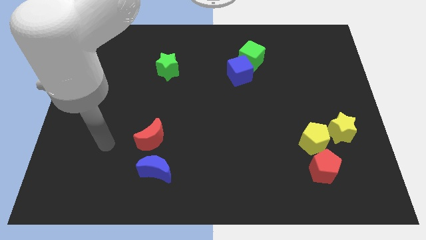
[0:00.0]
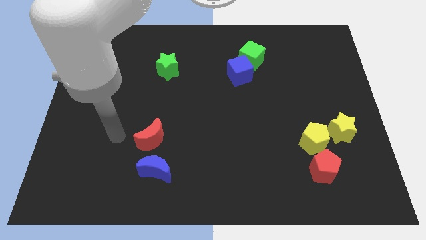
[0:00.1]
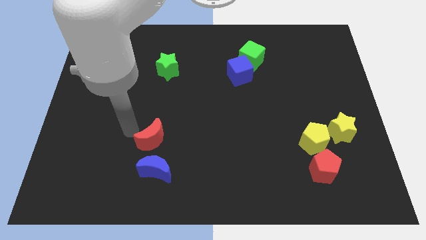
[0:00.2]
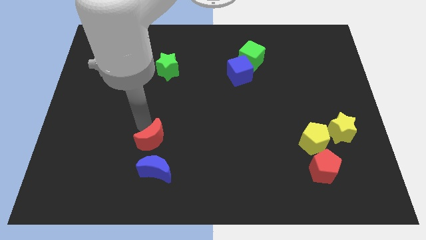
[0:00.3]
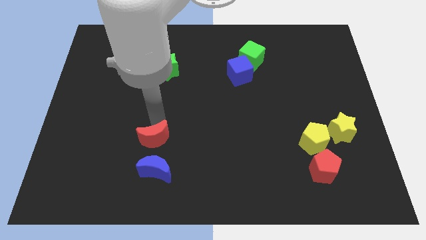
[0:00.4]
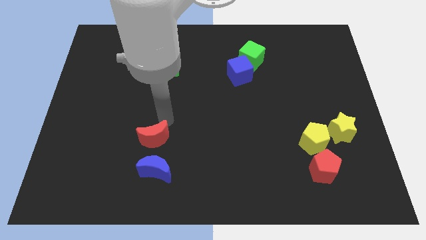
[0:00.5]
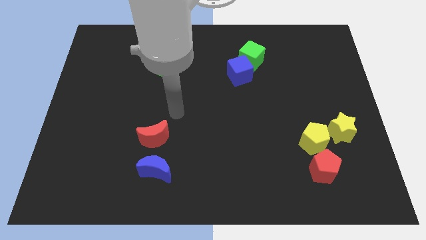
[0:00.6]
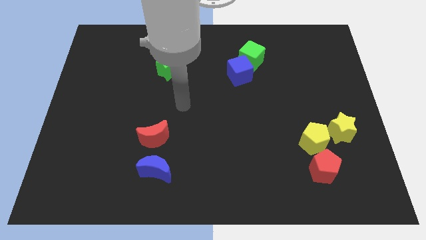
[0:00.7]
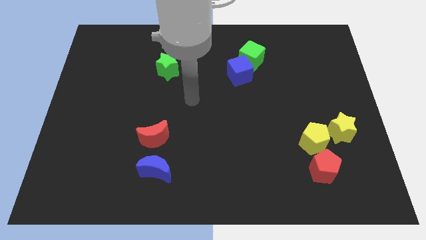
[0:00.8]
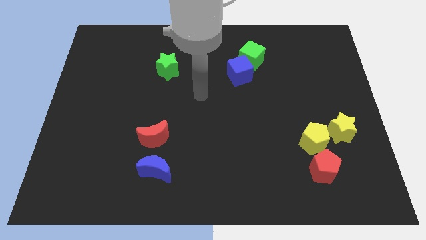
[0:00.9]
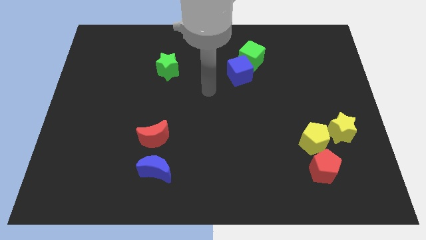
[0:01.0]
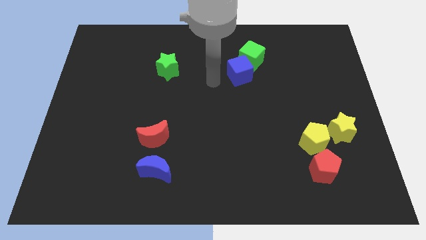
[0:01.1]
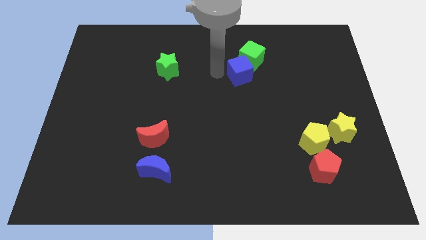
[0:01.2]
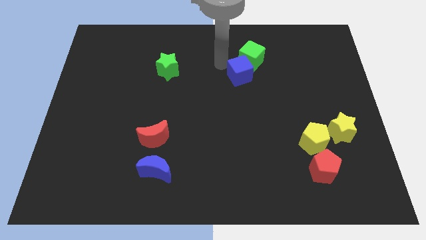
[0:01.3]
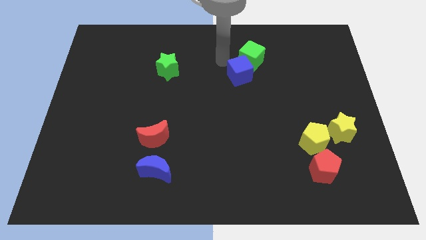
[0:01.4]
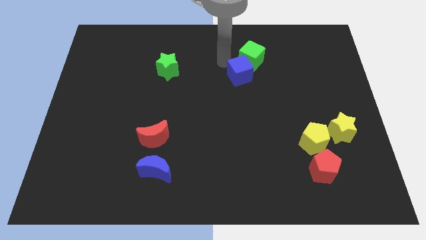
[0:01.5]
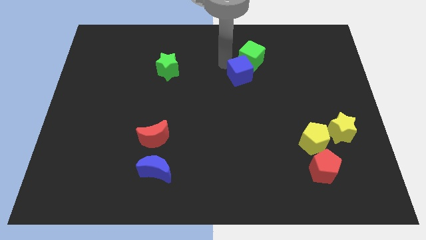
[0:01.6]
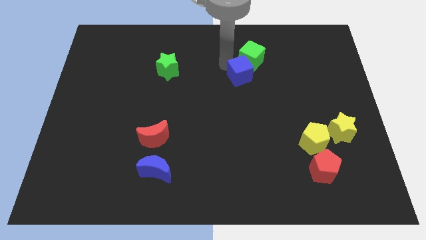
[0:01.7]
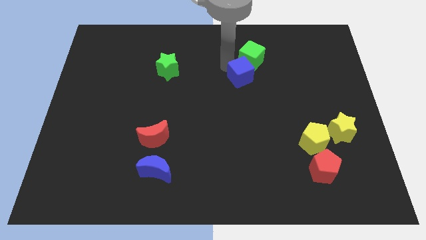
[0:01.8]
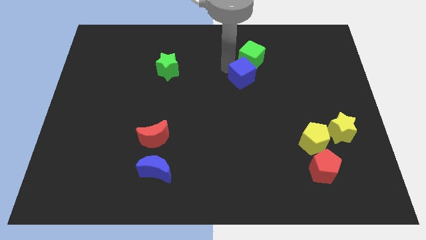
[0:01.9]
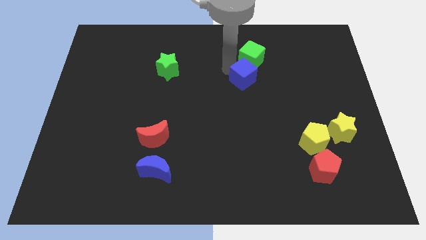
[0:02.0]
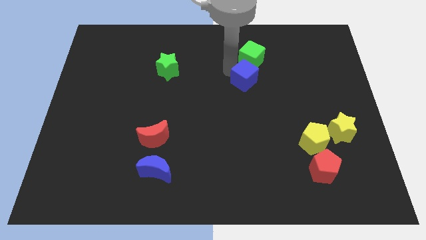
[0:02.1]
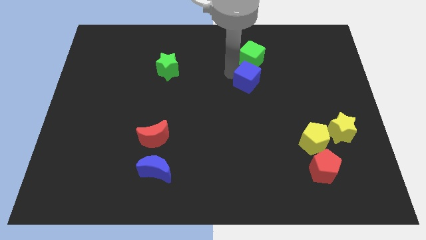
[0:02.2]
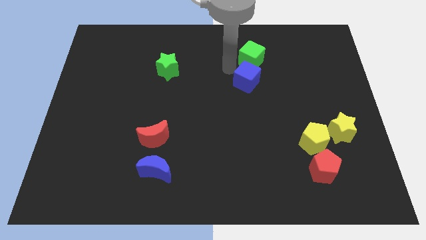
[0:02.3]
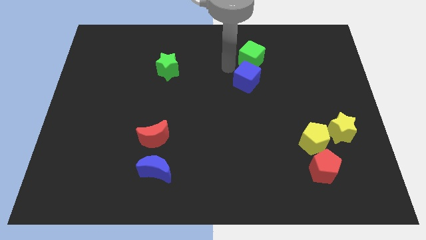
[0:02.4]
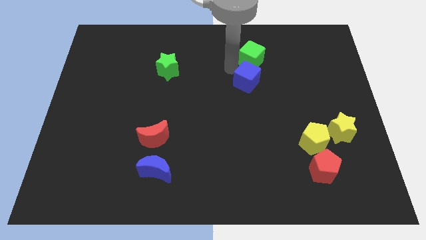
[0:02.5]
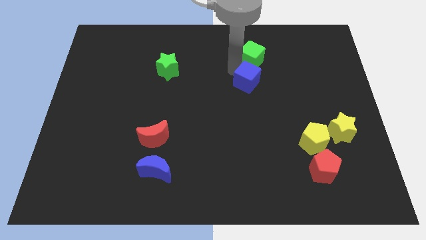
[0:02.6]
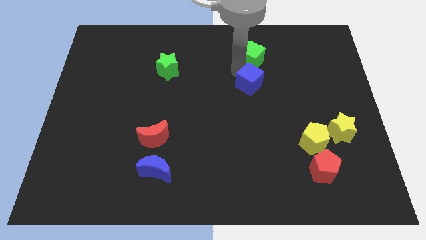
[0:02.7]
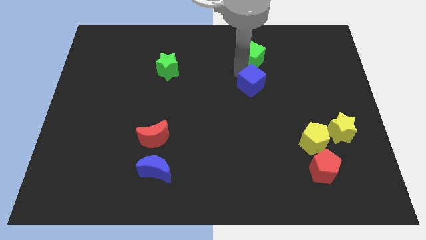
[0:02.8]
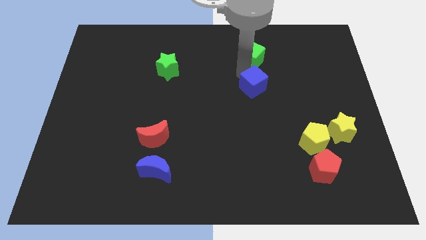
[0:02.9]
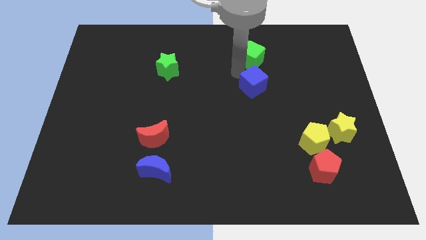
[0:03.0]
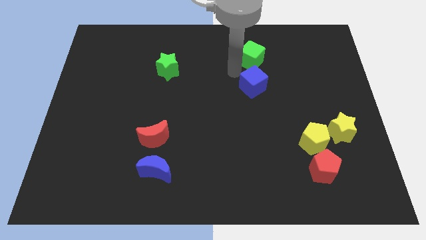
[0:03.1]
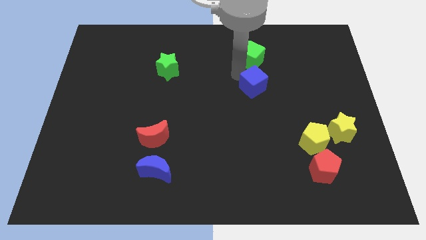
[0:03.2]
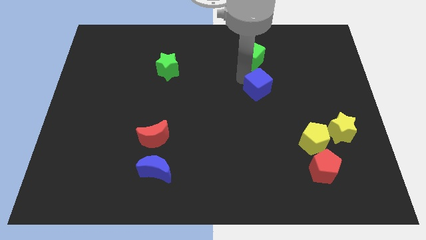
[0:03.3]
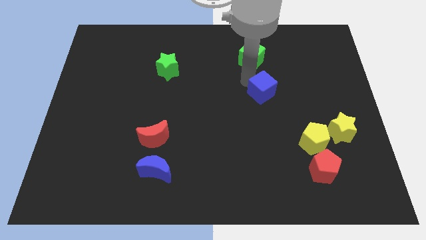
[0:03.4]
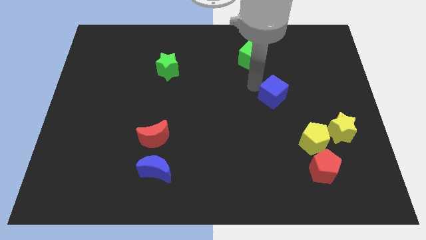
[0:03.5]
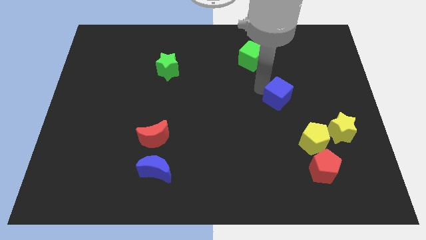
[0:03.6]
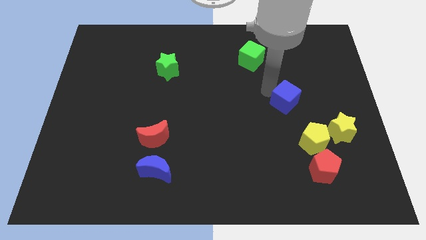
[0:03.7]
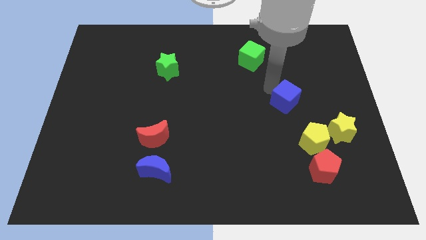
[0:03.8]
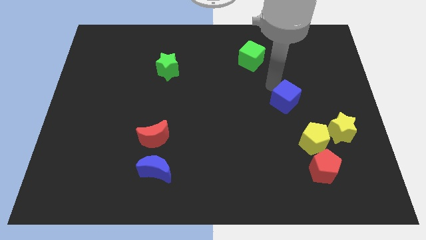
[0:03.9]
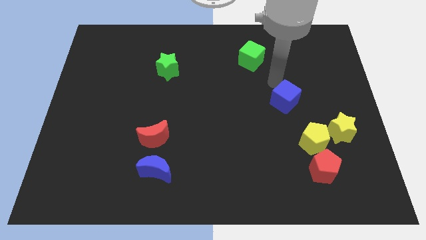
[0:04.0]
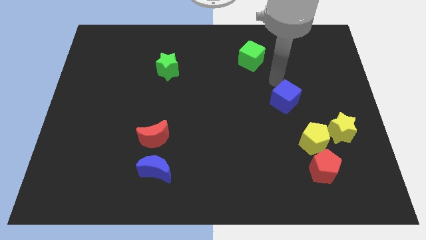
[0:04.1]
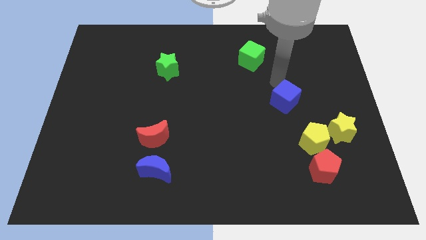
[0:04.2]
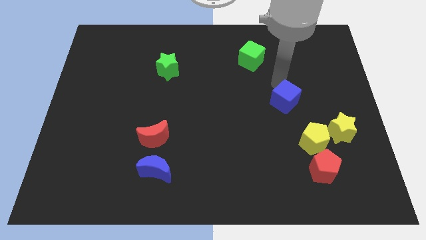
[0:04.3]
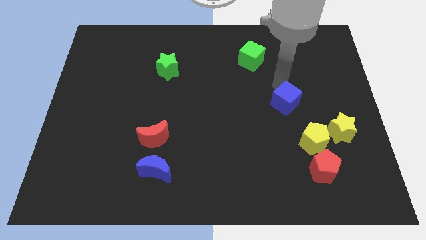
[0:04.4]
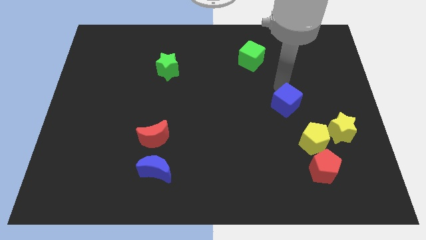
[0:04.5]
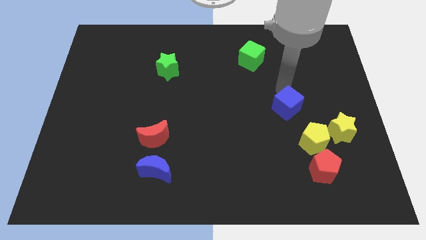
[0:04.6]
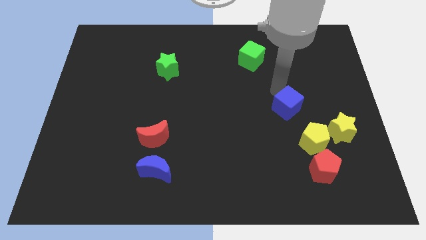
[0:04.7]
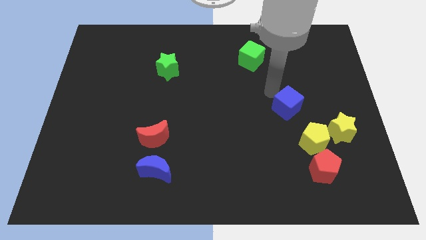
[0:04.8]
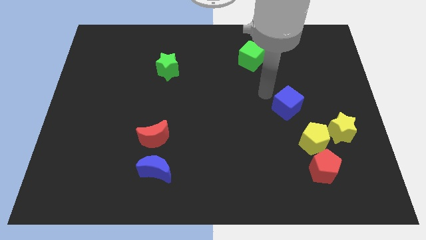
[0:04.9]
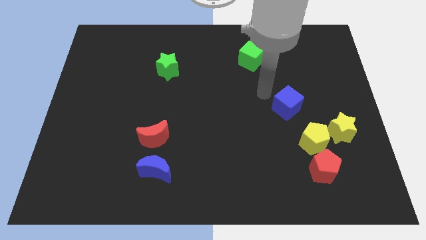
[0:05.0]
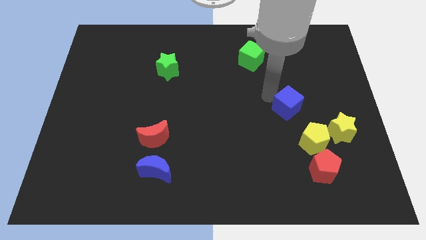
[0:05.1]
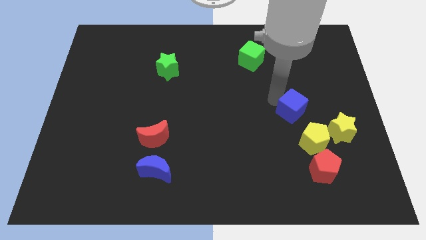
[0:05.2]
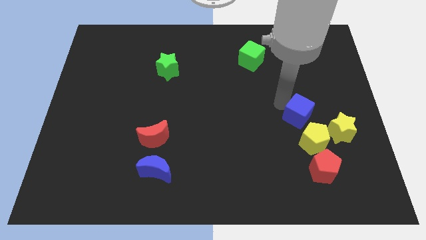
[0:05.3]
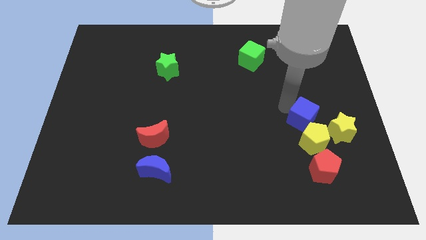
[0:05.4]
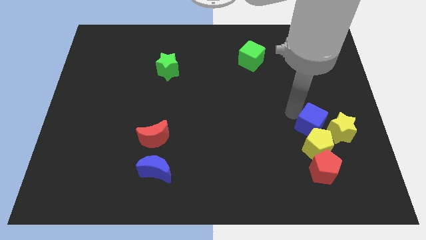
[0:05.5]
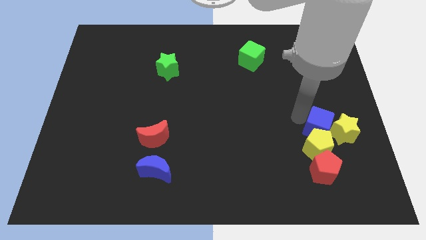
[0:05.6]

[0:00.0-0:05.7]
slide the blue cube to the yellow star

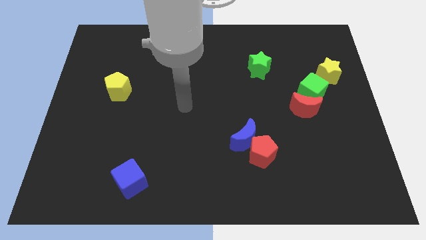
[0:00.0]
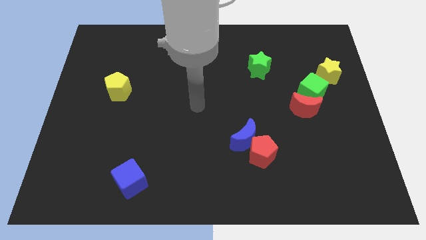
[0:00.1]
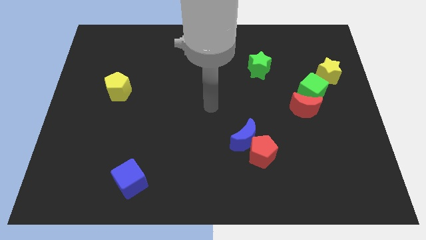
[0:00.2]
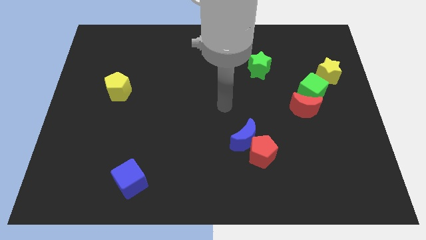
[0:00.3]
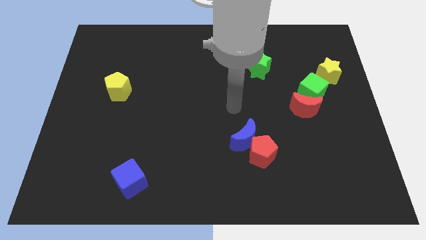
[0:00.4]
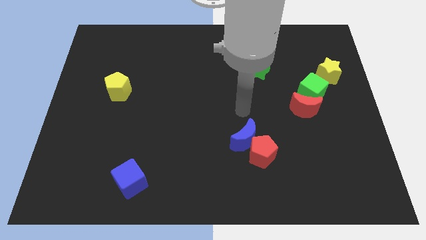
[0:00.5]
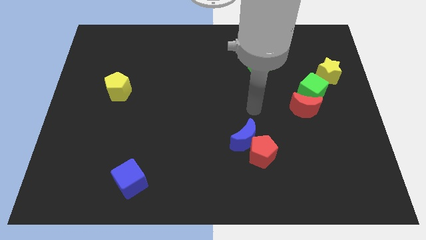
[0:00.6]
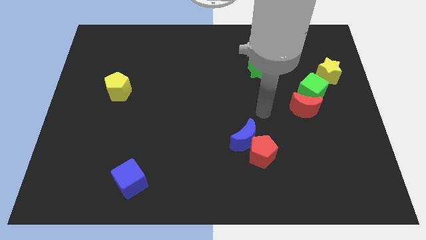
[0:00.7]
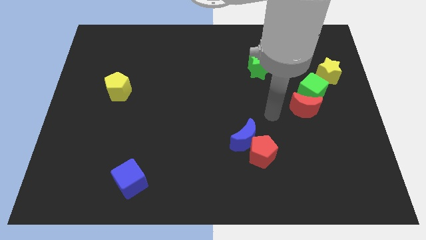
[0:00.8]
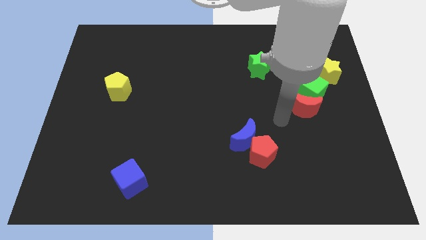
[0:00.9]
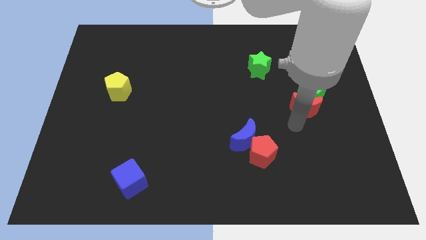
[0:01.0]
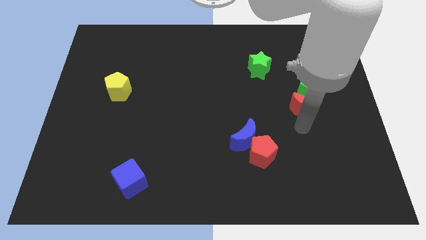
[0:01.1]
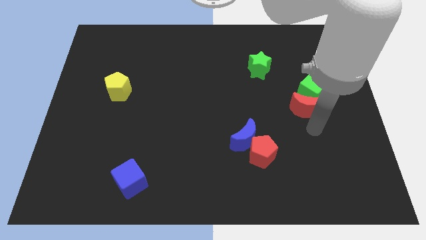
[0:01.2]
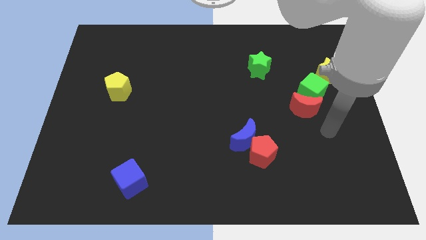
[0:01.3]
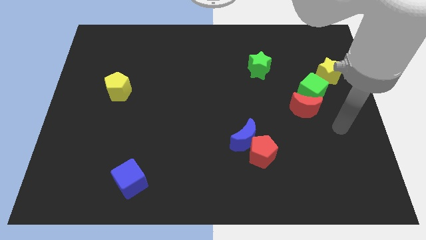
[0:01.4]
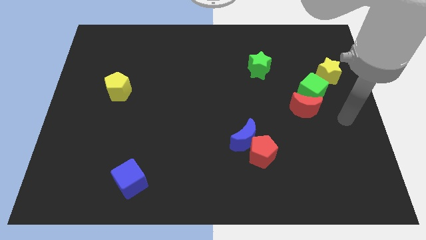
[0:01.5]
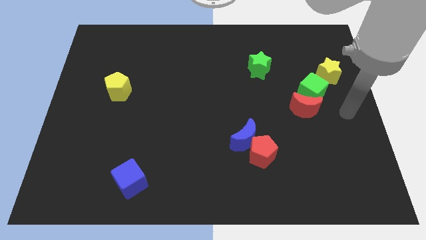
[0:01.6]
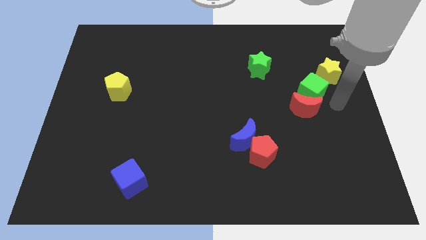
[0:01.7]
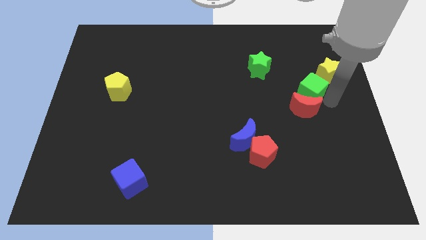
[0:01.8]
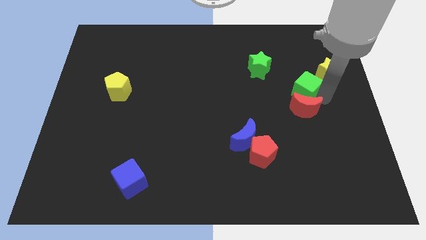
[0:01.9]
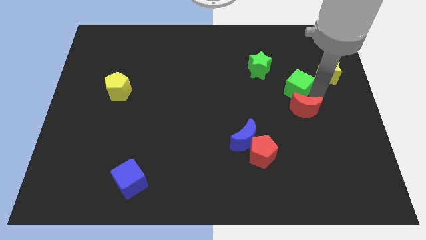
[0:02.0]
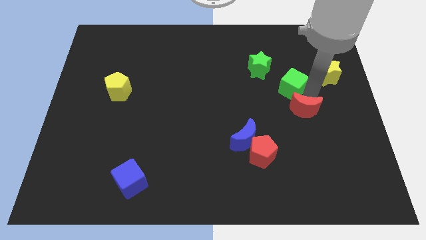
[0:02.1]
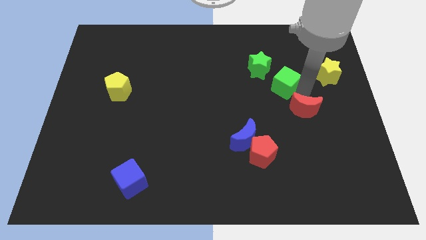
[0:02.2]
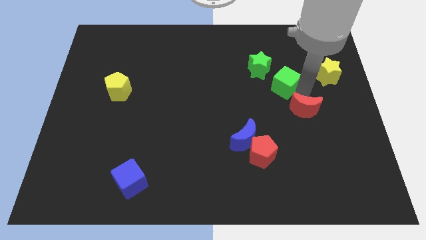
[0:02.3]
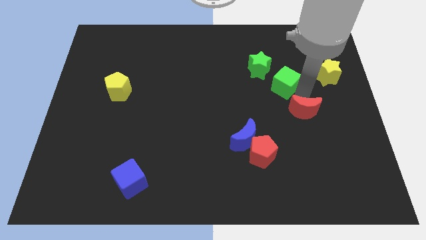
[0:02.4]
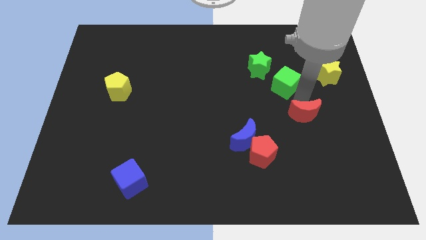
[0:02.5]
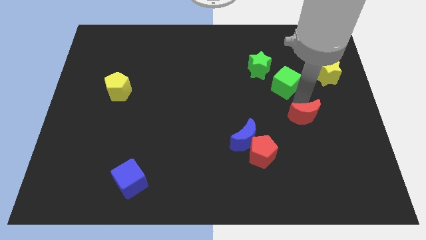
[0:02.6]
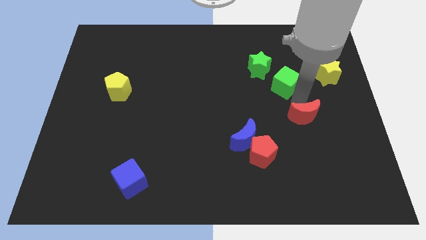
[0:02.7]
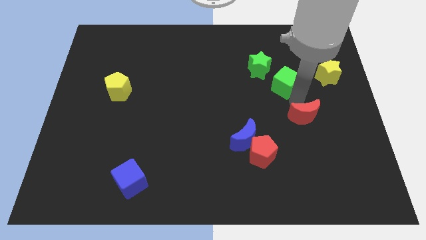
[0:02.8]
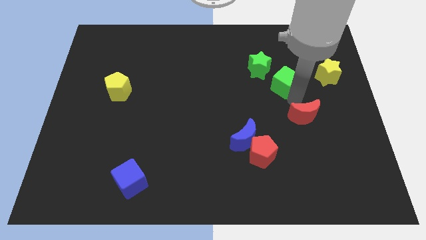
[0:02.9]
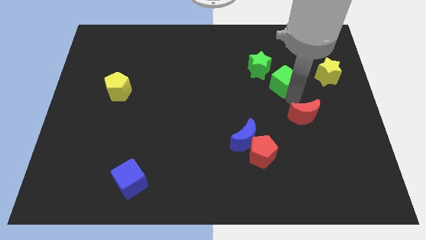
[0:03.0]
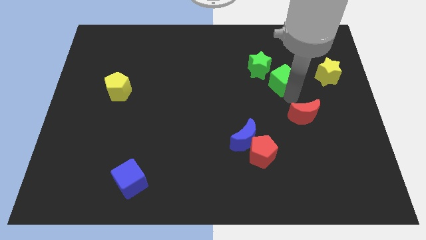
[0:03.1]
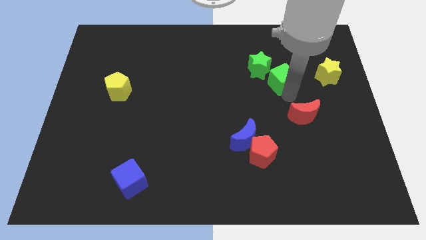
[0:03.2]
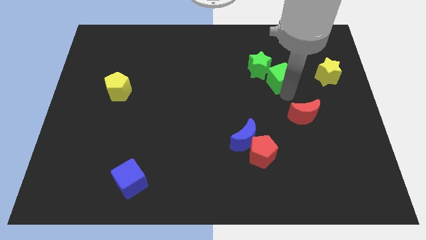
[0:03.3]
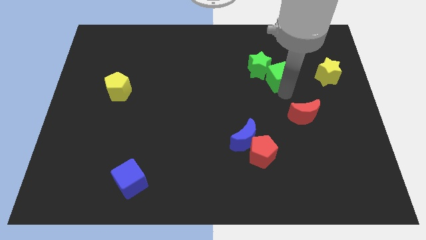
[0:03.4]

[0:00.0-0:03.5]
put the green cube to the green star
